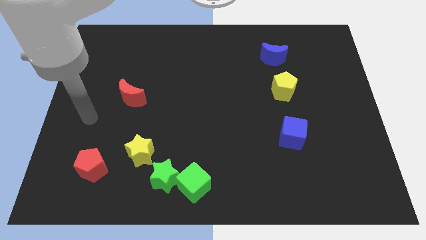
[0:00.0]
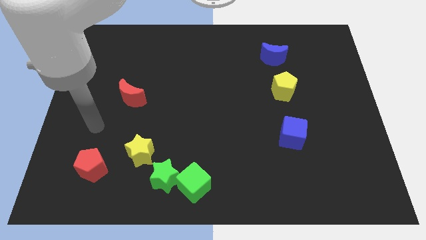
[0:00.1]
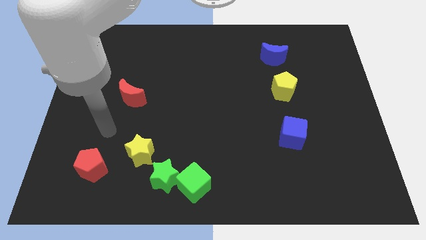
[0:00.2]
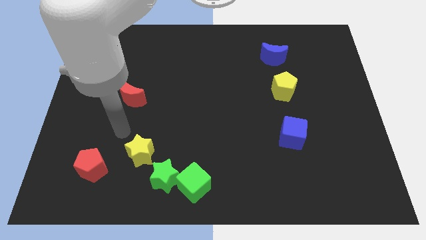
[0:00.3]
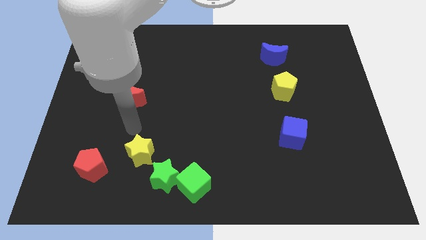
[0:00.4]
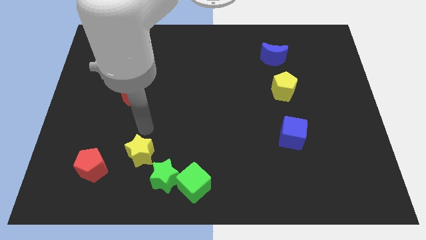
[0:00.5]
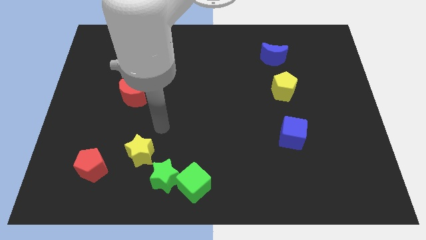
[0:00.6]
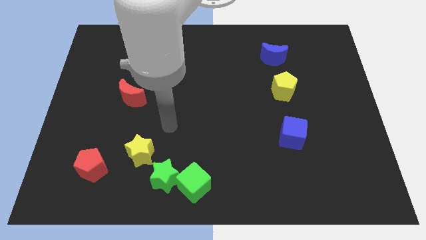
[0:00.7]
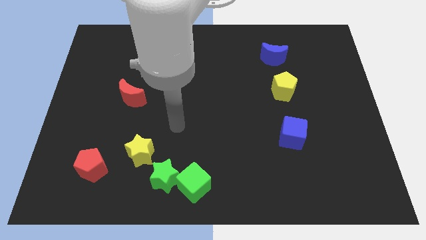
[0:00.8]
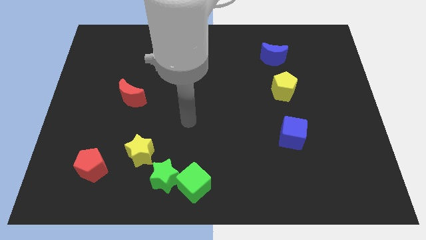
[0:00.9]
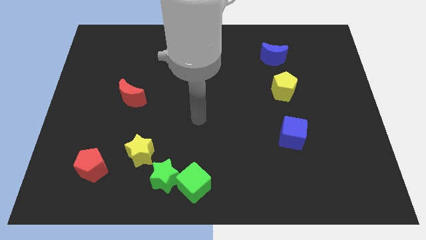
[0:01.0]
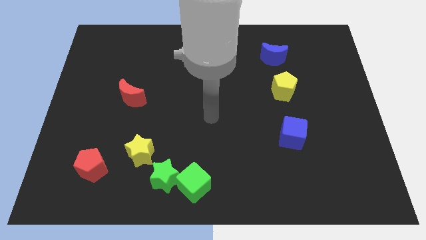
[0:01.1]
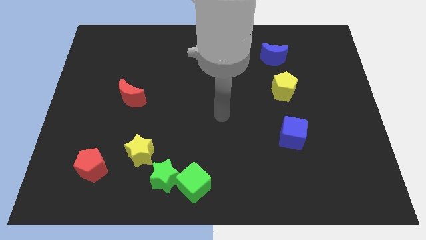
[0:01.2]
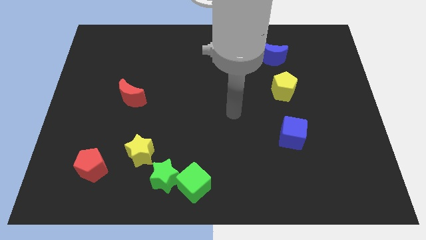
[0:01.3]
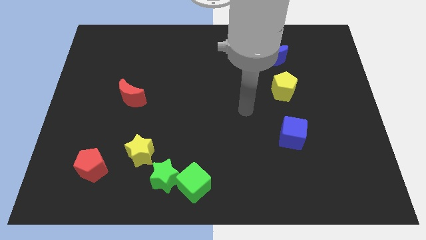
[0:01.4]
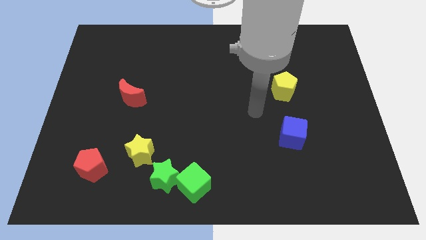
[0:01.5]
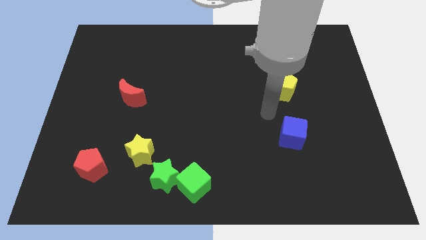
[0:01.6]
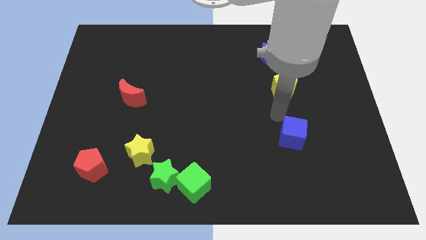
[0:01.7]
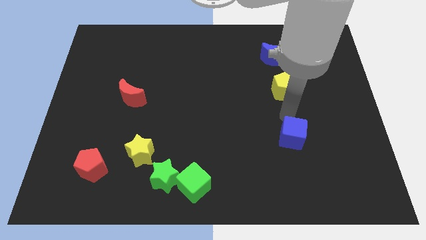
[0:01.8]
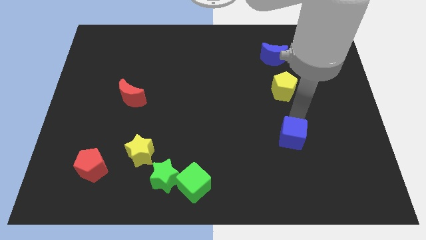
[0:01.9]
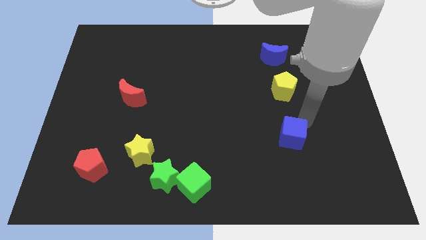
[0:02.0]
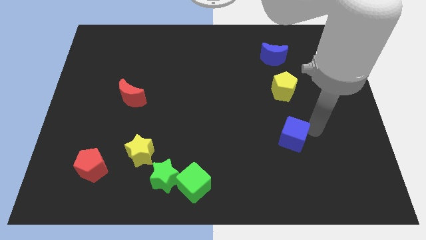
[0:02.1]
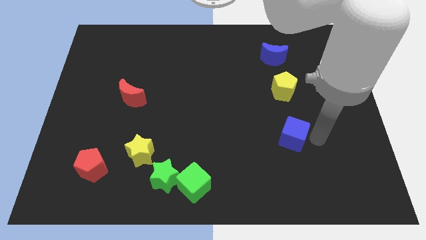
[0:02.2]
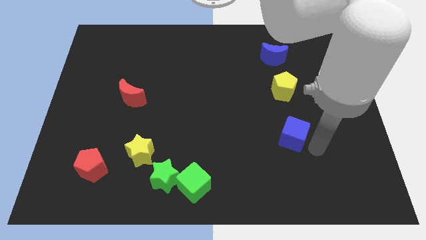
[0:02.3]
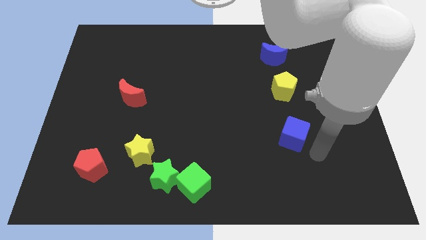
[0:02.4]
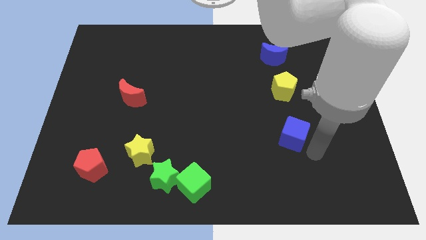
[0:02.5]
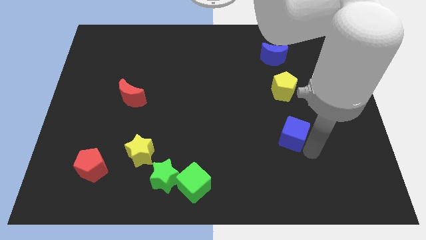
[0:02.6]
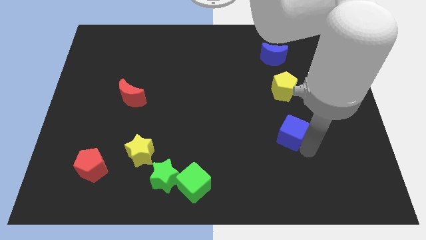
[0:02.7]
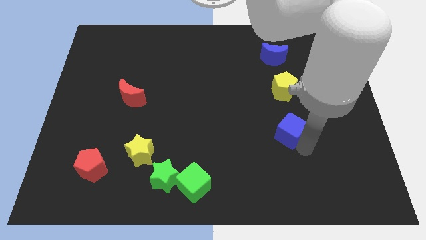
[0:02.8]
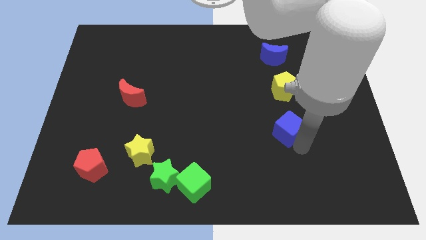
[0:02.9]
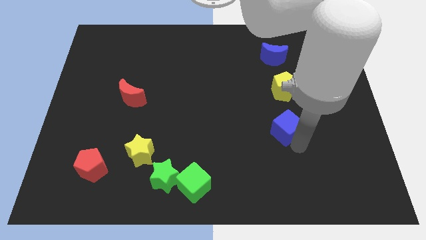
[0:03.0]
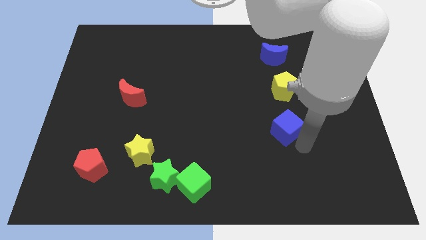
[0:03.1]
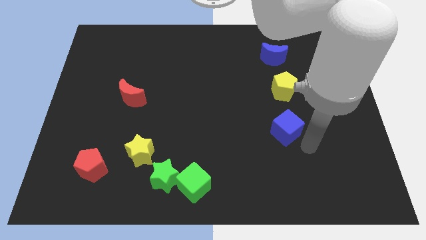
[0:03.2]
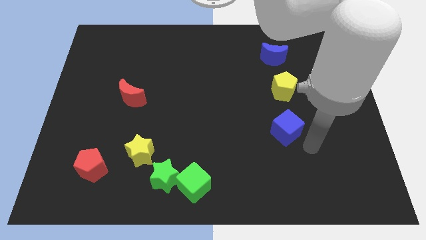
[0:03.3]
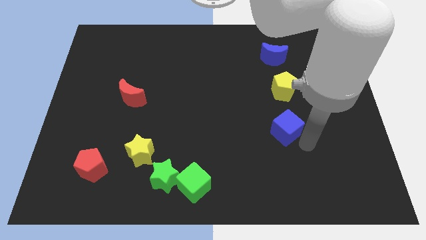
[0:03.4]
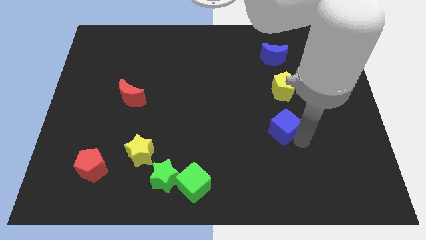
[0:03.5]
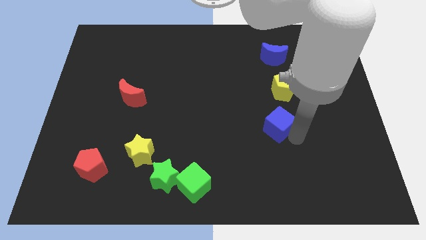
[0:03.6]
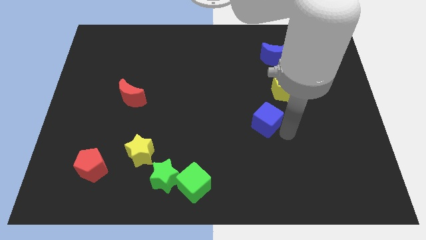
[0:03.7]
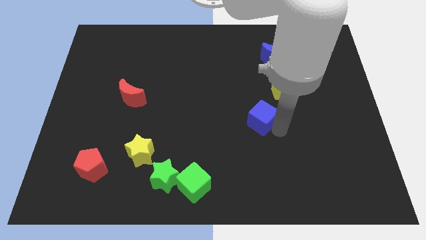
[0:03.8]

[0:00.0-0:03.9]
slide the blue cube a little bit upwards and then left

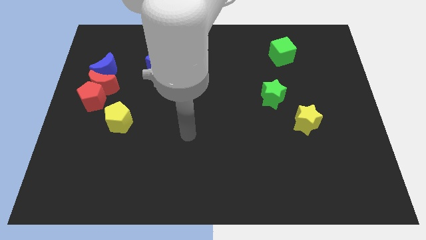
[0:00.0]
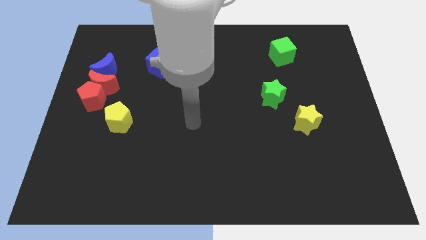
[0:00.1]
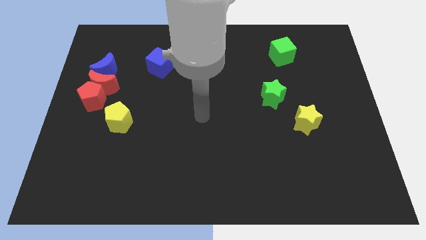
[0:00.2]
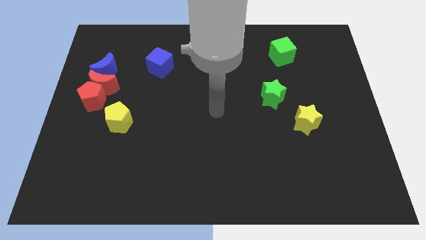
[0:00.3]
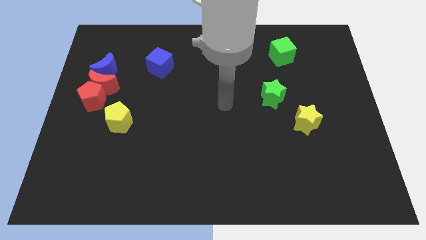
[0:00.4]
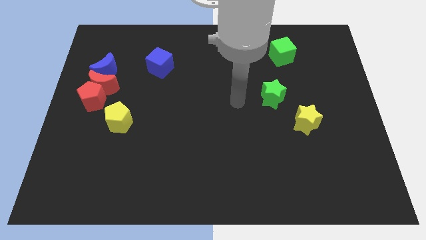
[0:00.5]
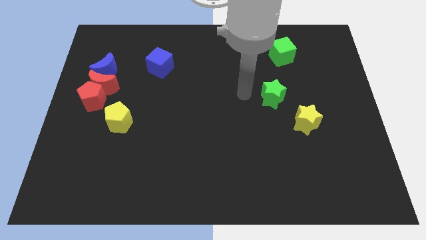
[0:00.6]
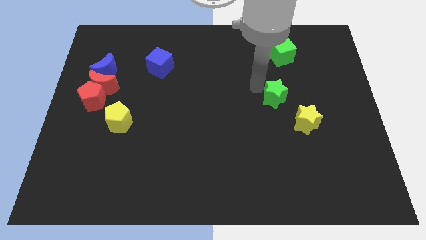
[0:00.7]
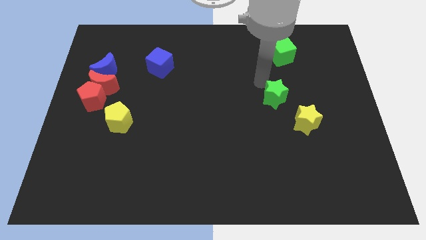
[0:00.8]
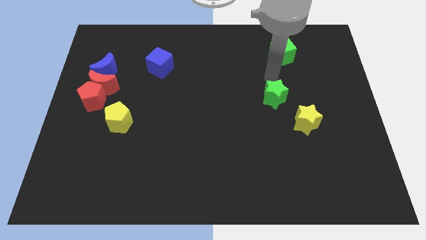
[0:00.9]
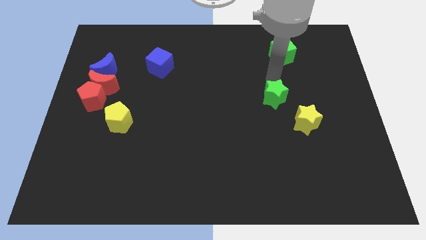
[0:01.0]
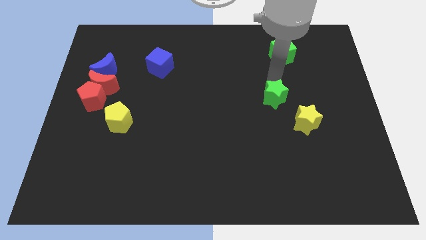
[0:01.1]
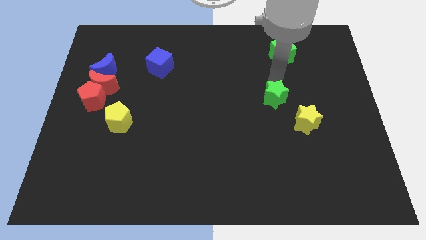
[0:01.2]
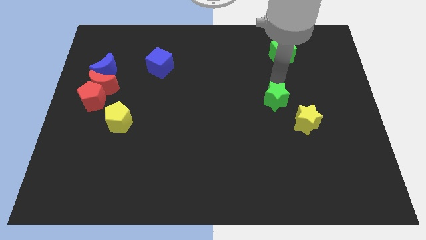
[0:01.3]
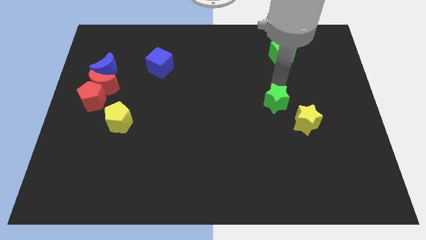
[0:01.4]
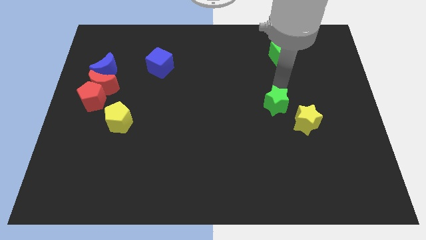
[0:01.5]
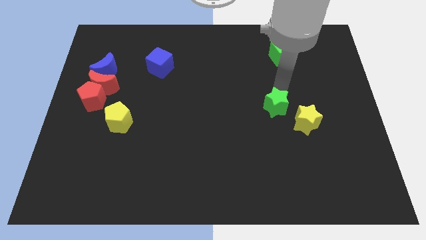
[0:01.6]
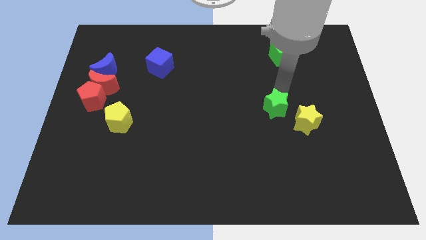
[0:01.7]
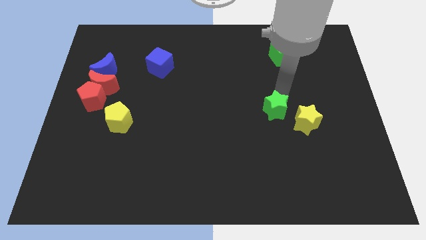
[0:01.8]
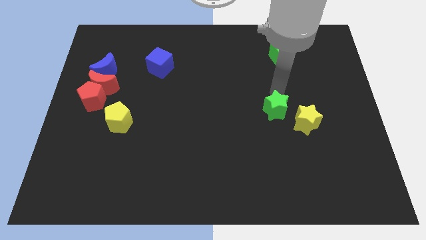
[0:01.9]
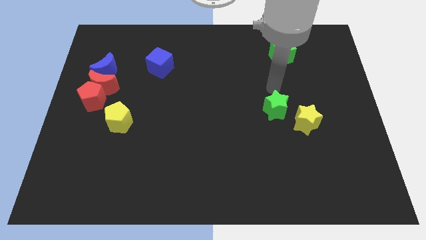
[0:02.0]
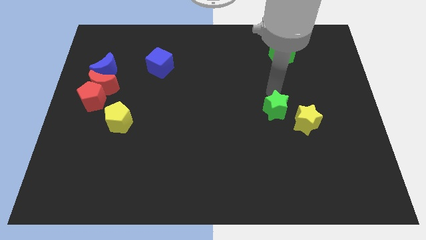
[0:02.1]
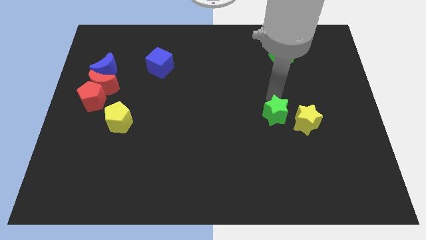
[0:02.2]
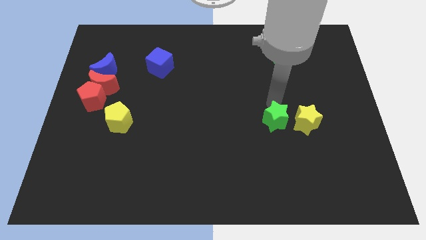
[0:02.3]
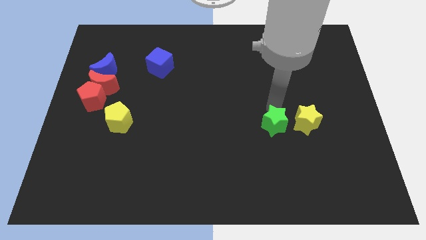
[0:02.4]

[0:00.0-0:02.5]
slightly push the green star down

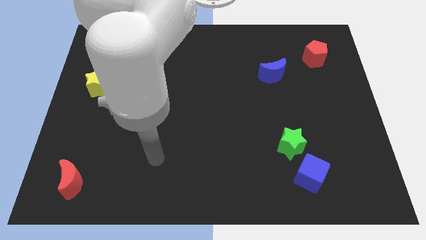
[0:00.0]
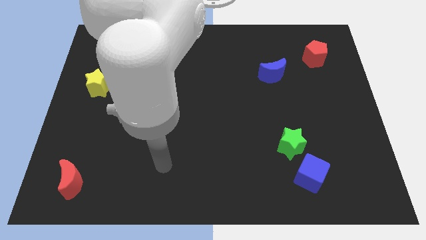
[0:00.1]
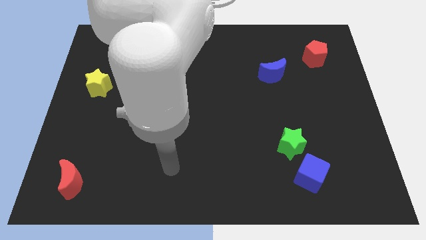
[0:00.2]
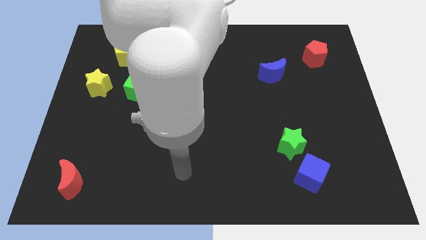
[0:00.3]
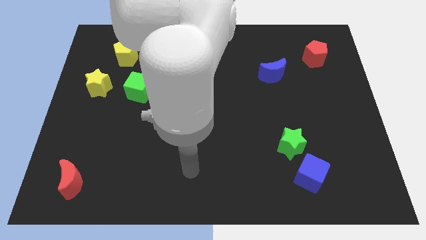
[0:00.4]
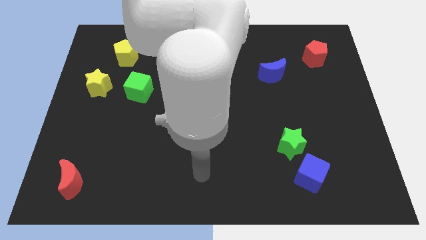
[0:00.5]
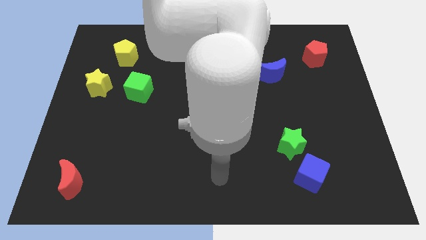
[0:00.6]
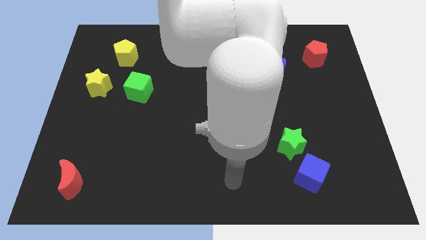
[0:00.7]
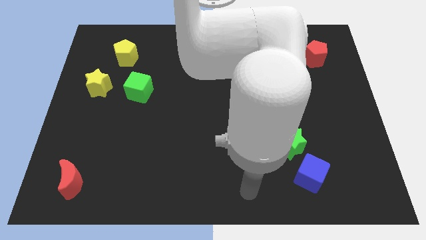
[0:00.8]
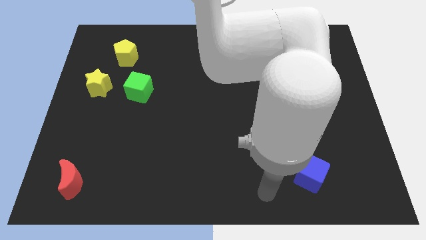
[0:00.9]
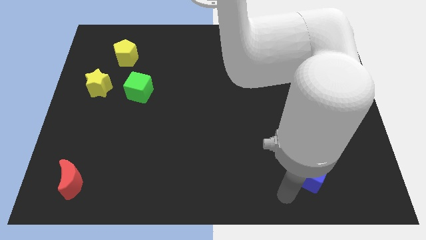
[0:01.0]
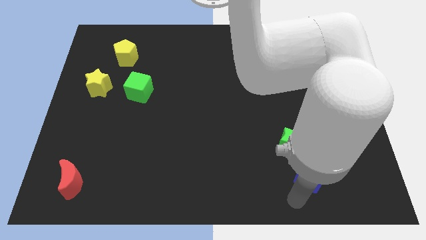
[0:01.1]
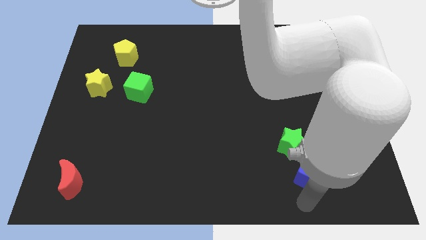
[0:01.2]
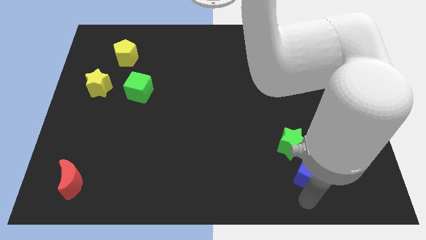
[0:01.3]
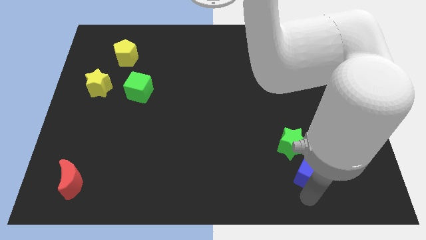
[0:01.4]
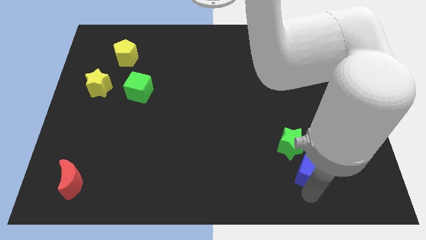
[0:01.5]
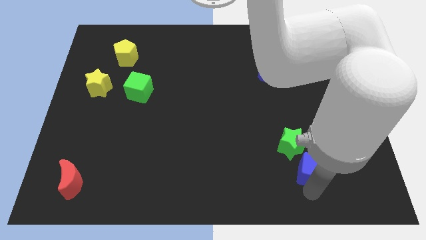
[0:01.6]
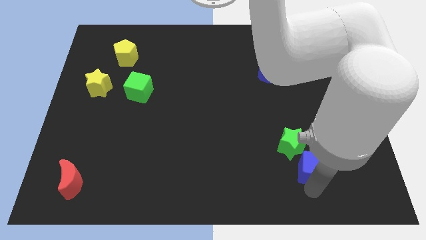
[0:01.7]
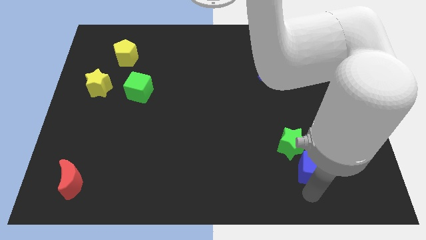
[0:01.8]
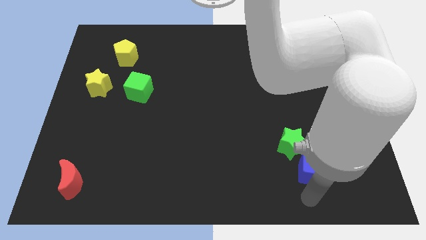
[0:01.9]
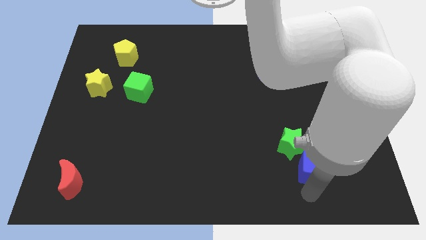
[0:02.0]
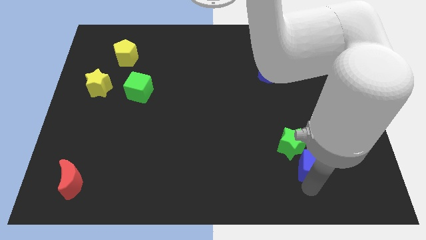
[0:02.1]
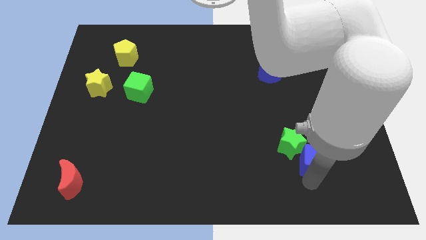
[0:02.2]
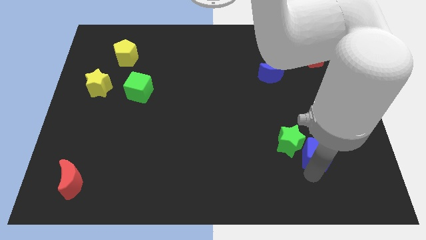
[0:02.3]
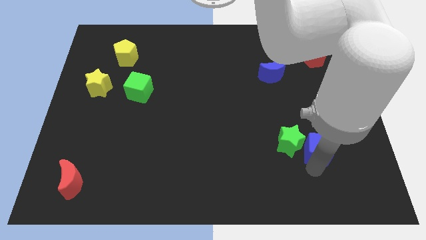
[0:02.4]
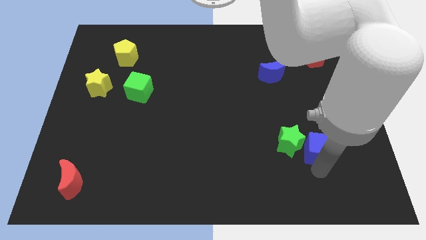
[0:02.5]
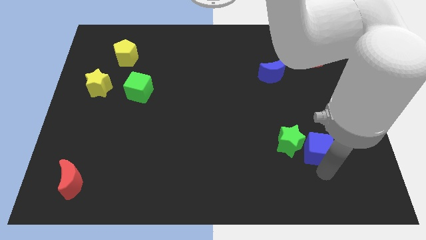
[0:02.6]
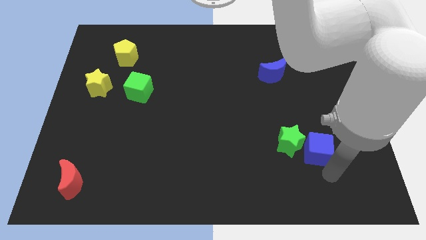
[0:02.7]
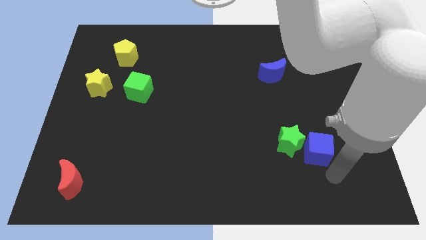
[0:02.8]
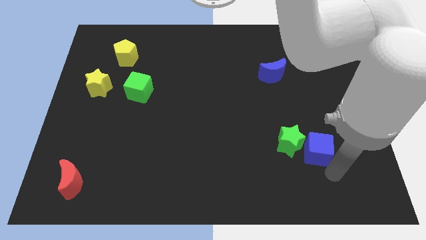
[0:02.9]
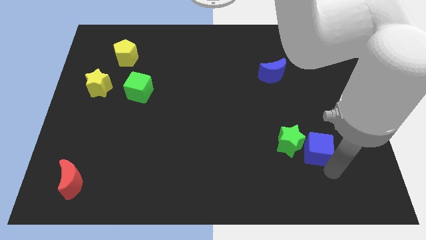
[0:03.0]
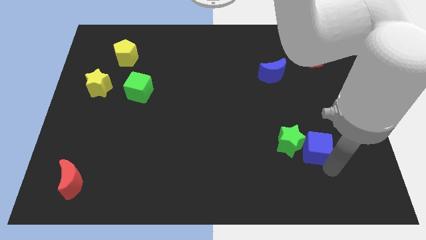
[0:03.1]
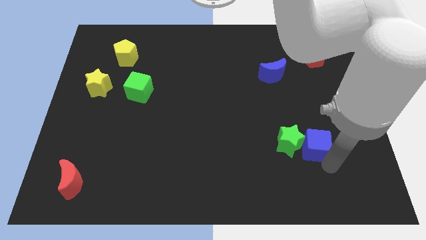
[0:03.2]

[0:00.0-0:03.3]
slightly push the blue cube up
